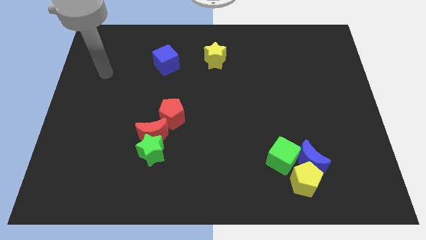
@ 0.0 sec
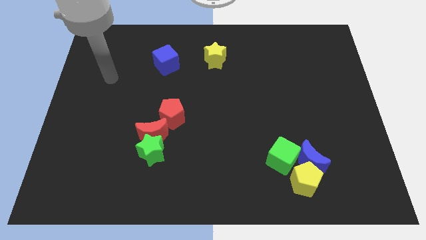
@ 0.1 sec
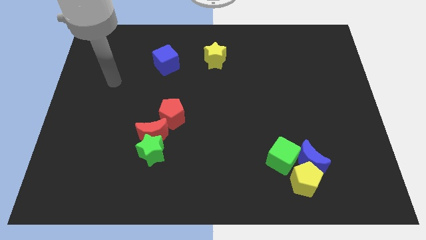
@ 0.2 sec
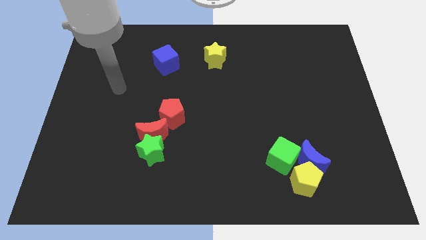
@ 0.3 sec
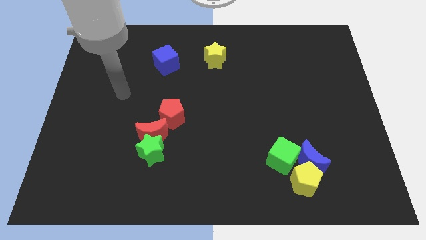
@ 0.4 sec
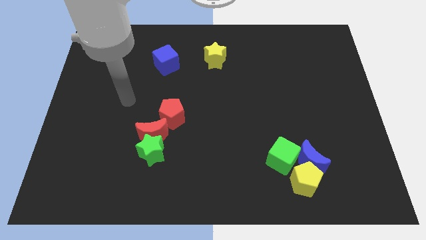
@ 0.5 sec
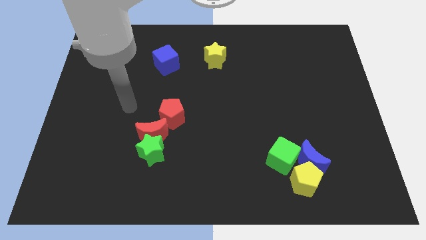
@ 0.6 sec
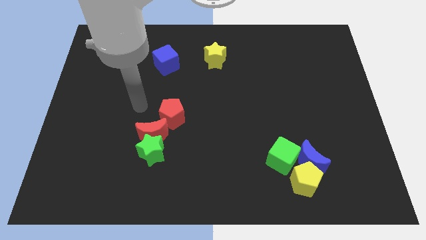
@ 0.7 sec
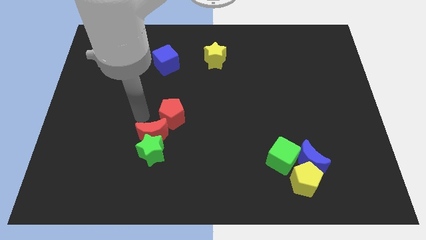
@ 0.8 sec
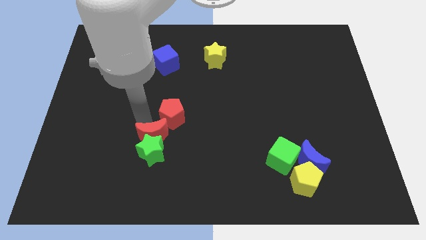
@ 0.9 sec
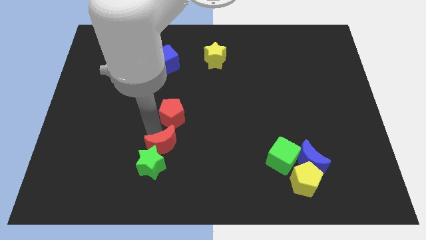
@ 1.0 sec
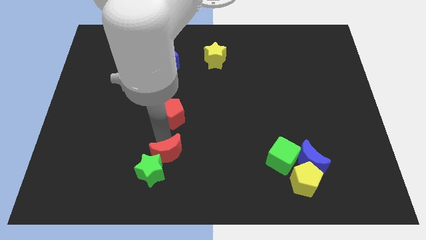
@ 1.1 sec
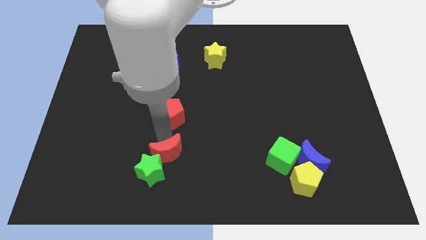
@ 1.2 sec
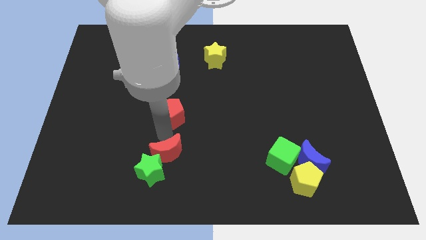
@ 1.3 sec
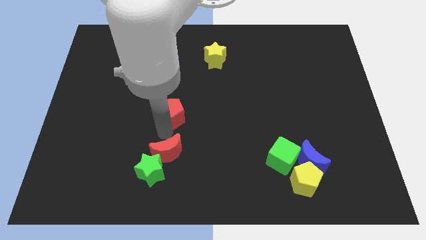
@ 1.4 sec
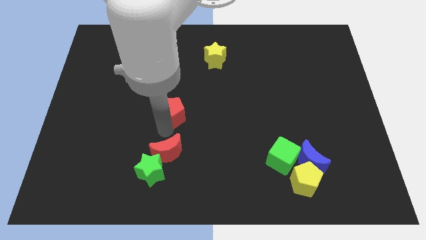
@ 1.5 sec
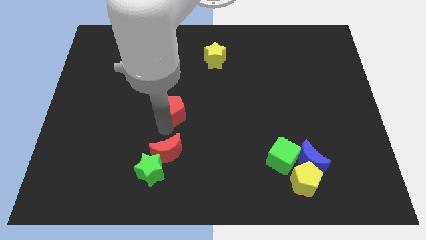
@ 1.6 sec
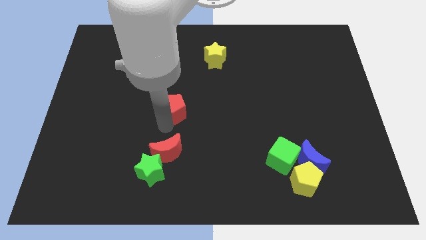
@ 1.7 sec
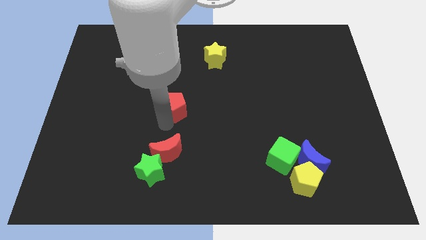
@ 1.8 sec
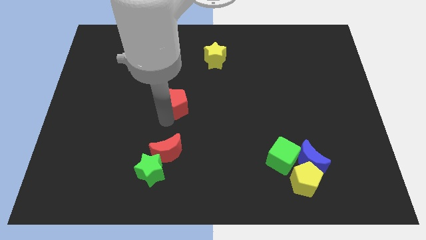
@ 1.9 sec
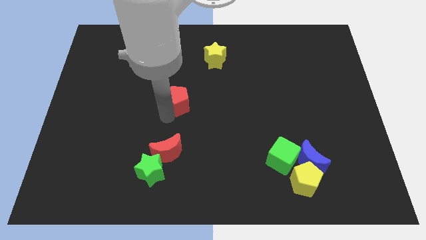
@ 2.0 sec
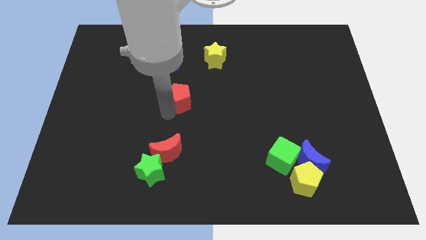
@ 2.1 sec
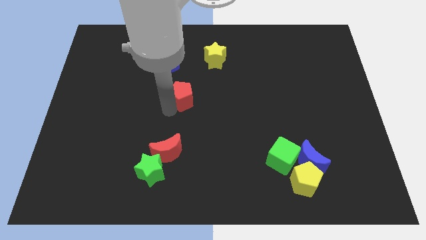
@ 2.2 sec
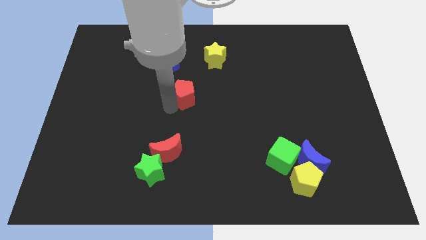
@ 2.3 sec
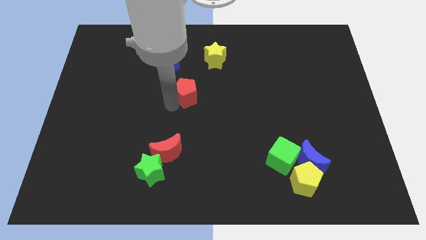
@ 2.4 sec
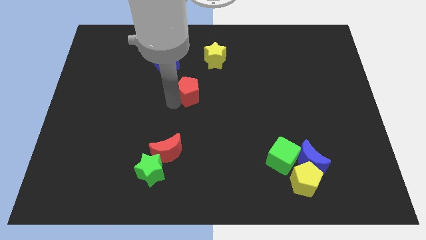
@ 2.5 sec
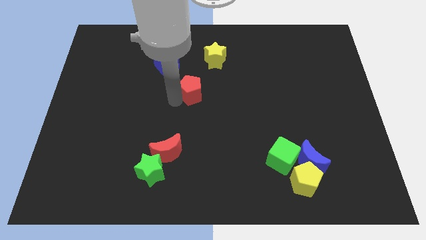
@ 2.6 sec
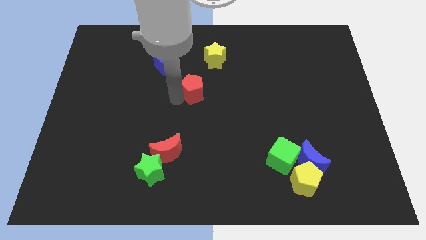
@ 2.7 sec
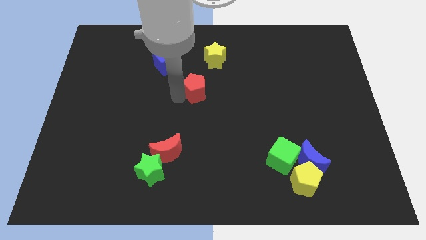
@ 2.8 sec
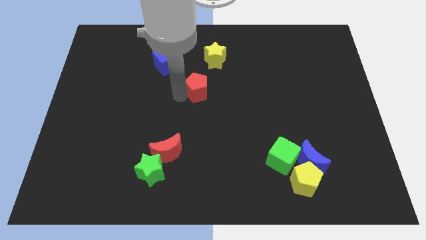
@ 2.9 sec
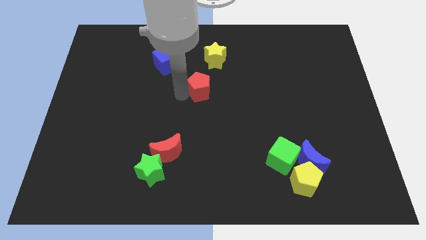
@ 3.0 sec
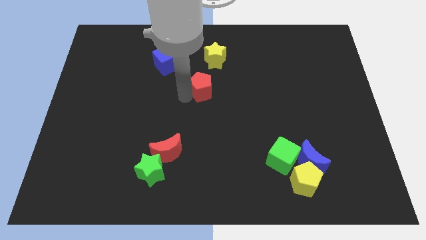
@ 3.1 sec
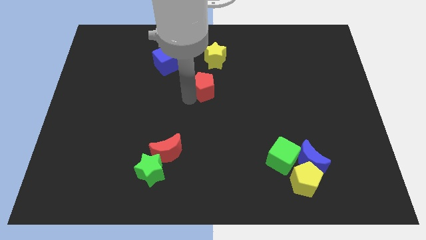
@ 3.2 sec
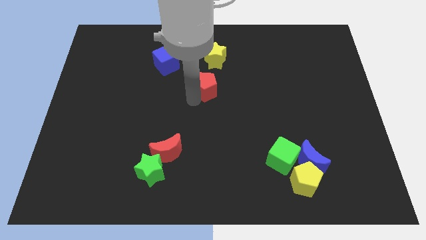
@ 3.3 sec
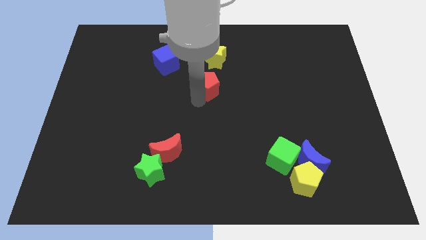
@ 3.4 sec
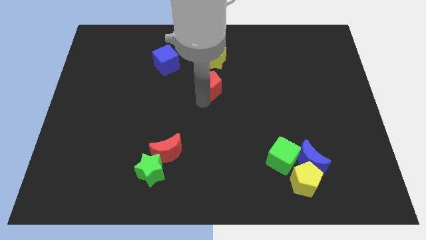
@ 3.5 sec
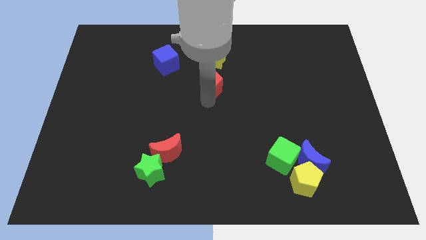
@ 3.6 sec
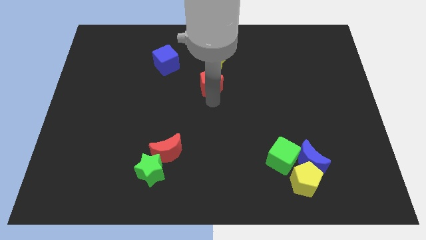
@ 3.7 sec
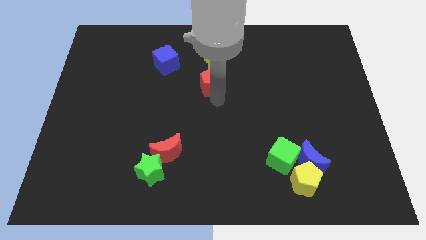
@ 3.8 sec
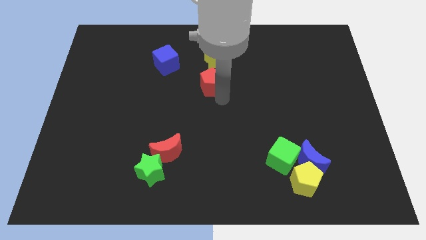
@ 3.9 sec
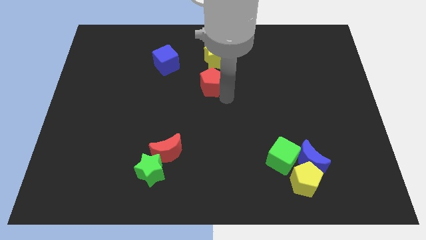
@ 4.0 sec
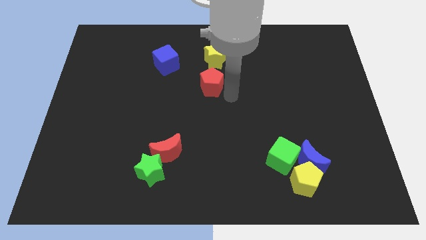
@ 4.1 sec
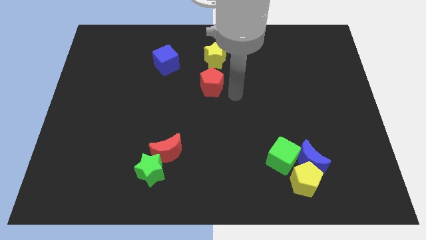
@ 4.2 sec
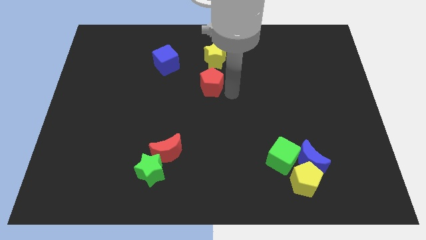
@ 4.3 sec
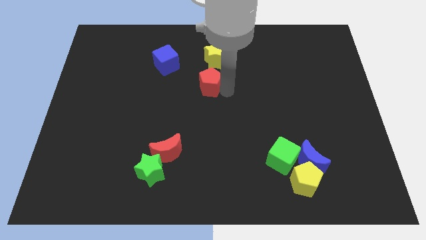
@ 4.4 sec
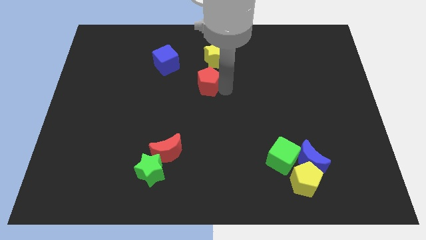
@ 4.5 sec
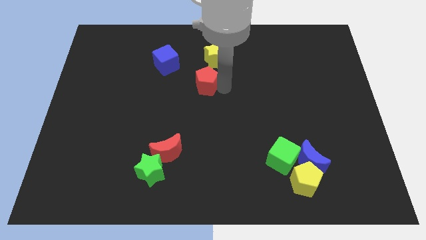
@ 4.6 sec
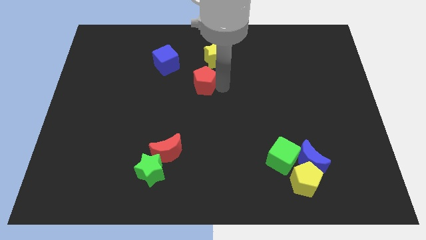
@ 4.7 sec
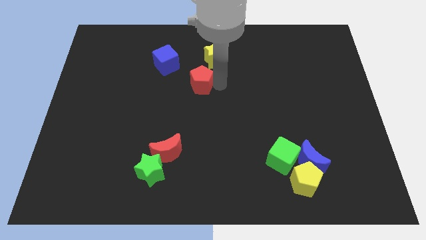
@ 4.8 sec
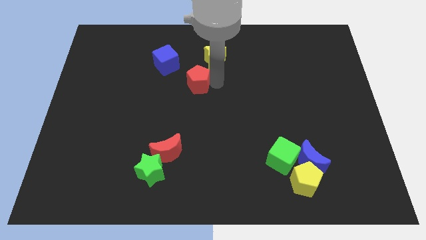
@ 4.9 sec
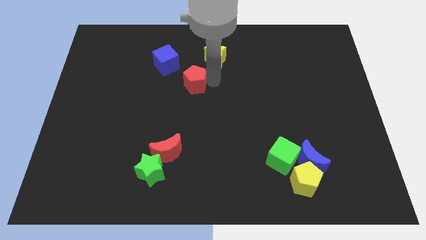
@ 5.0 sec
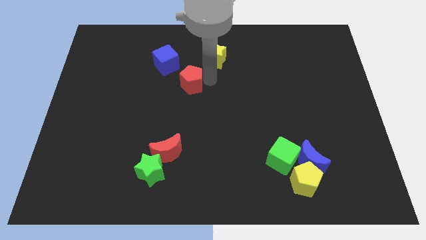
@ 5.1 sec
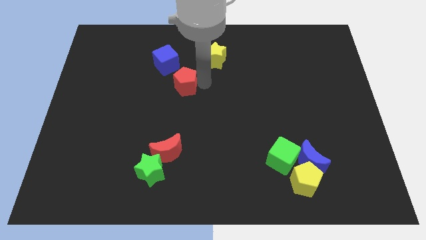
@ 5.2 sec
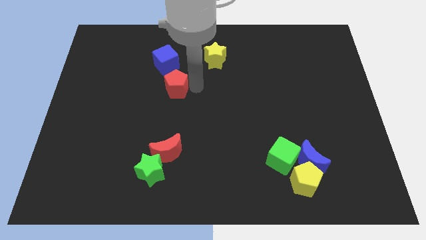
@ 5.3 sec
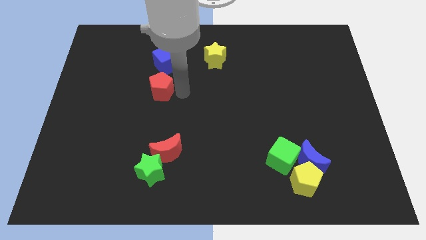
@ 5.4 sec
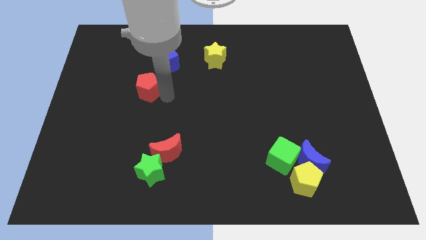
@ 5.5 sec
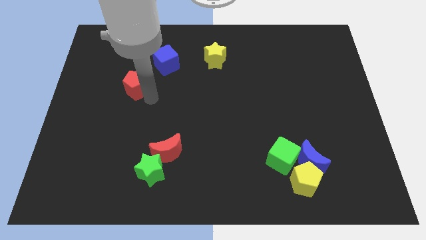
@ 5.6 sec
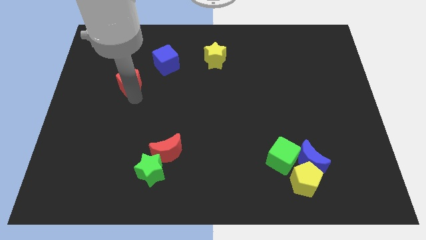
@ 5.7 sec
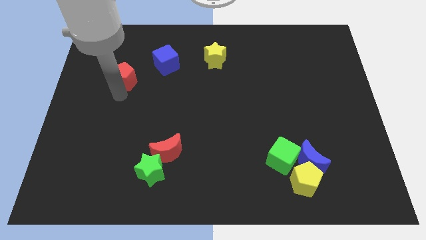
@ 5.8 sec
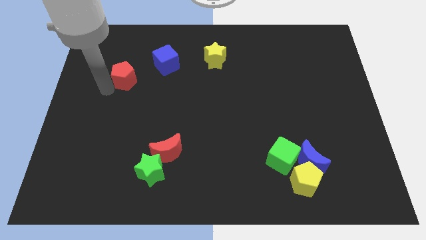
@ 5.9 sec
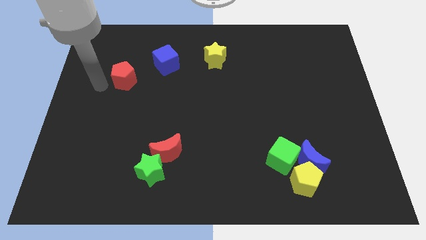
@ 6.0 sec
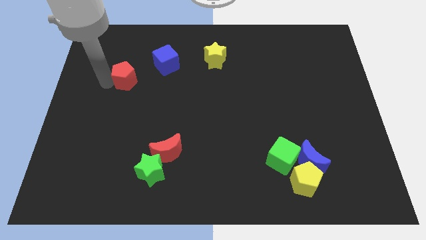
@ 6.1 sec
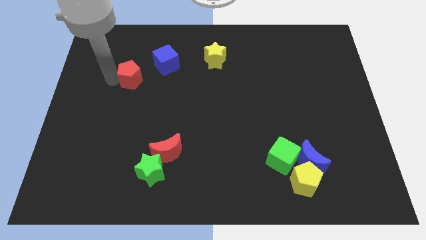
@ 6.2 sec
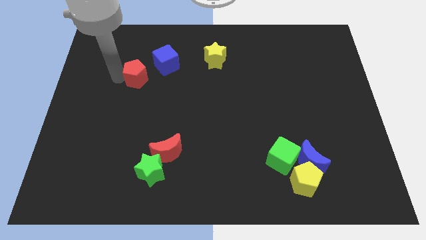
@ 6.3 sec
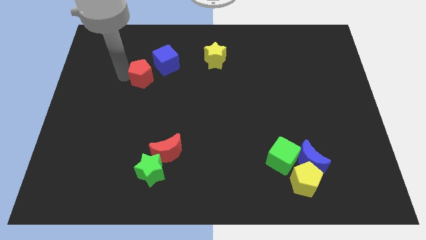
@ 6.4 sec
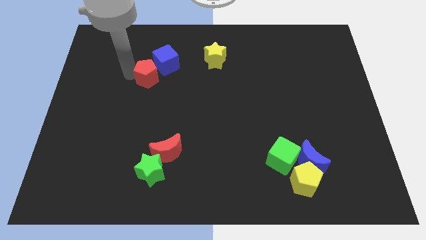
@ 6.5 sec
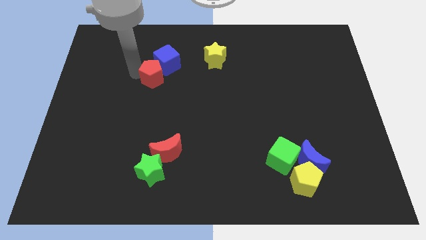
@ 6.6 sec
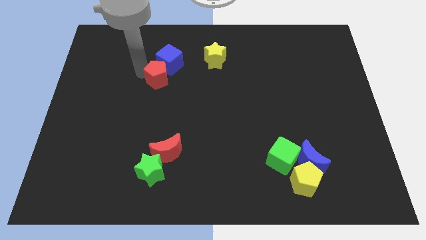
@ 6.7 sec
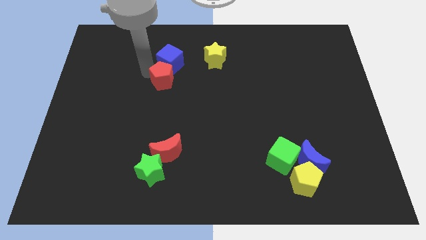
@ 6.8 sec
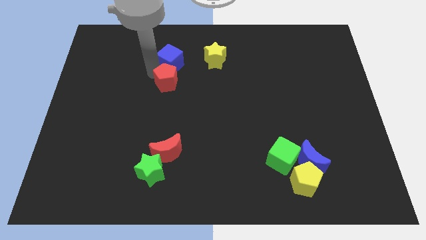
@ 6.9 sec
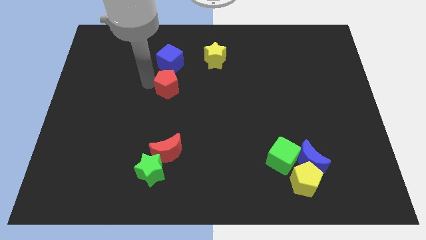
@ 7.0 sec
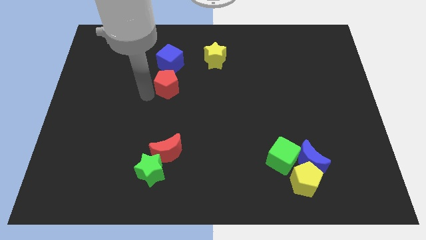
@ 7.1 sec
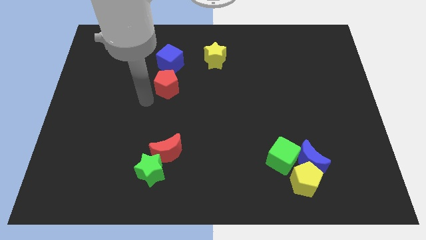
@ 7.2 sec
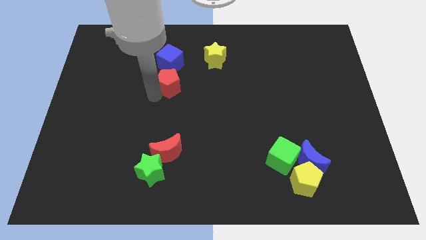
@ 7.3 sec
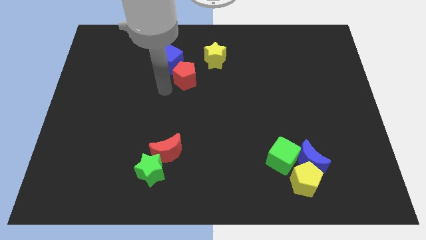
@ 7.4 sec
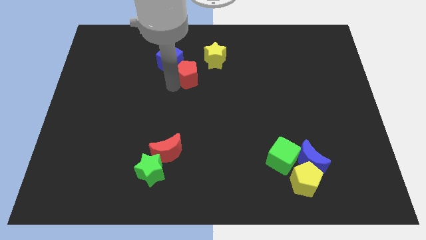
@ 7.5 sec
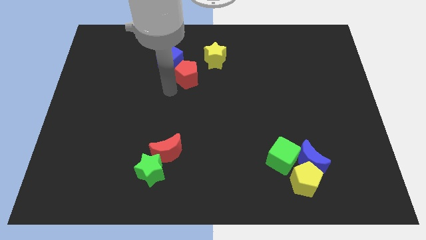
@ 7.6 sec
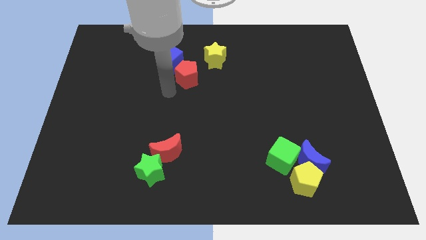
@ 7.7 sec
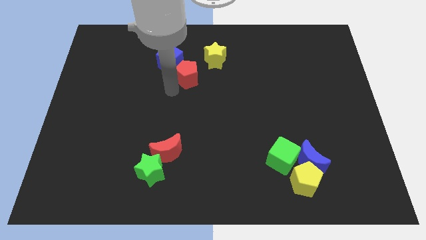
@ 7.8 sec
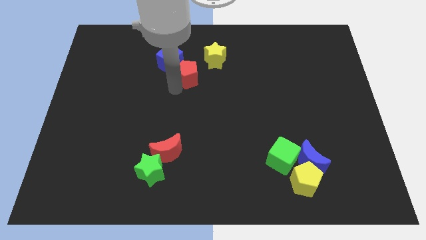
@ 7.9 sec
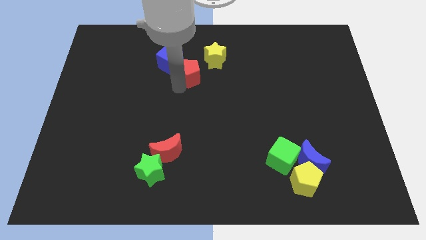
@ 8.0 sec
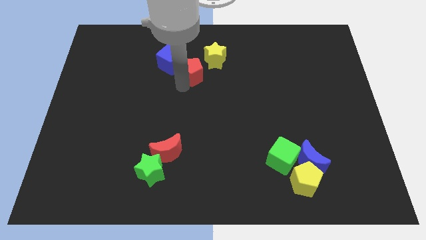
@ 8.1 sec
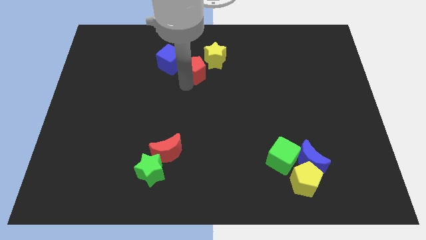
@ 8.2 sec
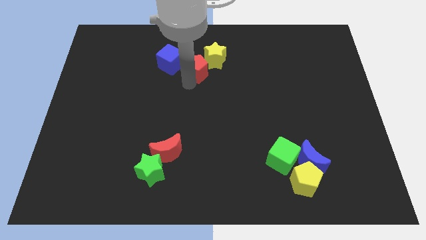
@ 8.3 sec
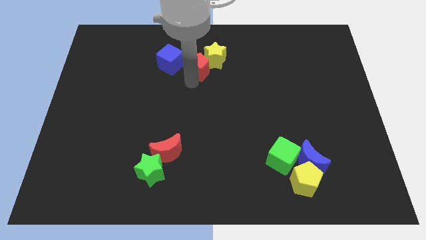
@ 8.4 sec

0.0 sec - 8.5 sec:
slide the red pentagon next to the yellow star
